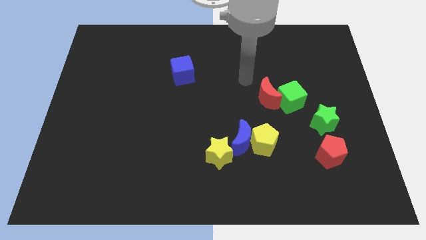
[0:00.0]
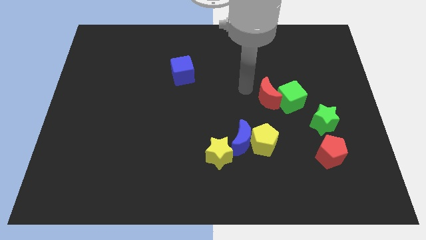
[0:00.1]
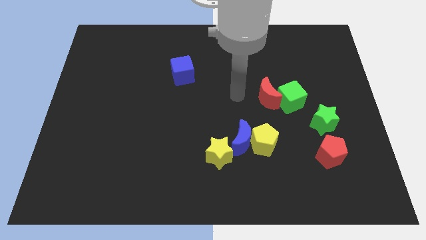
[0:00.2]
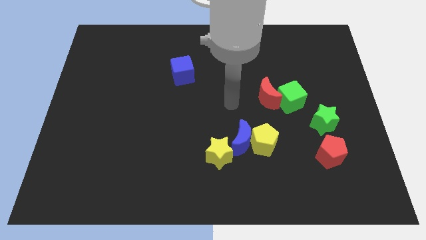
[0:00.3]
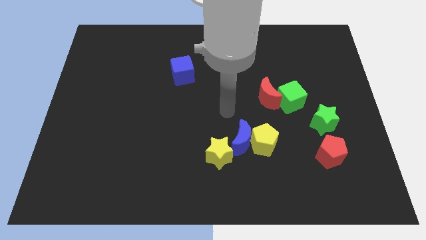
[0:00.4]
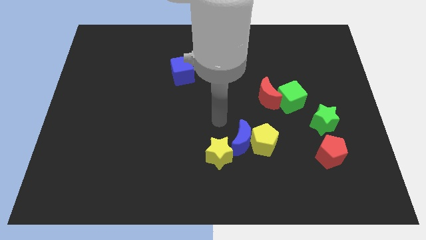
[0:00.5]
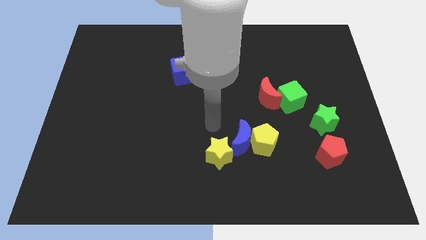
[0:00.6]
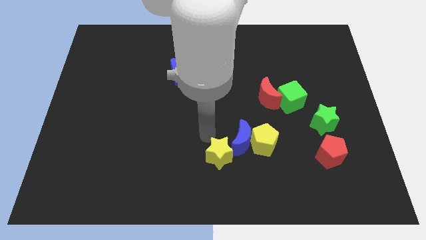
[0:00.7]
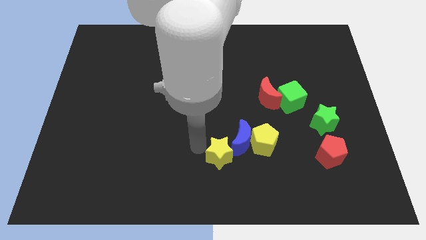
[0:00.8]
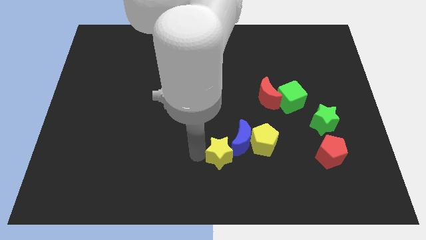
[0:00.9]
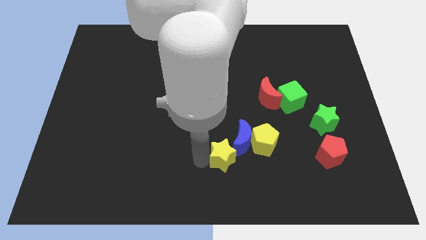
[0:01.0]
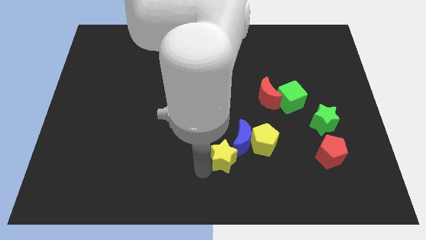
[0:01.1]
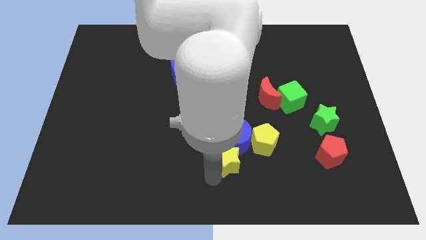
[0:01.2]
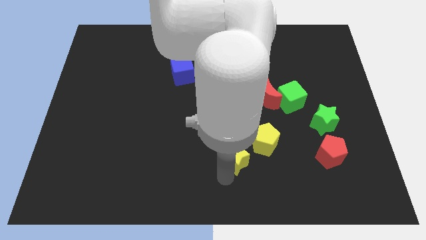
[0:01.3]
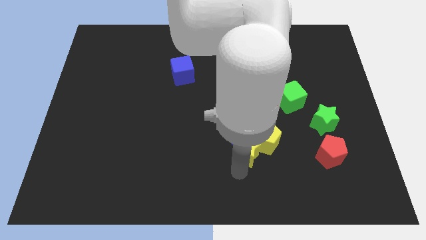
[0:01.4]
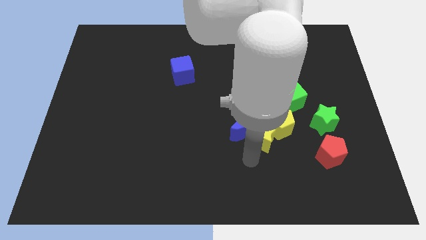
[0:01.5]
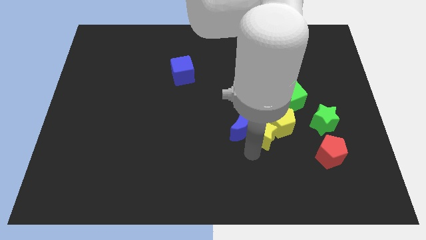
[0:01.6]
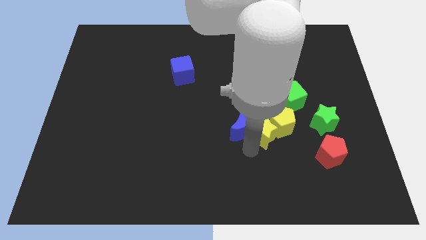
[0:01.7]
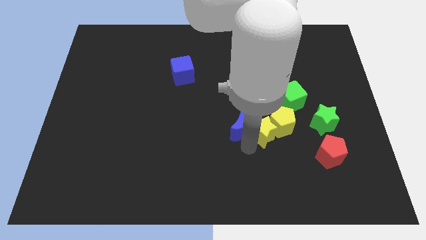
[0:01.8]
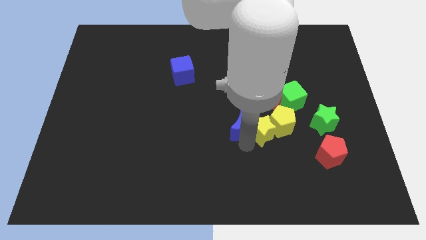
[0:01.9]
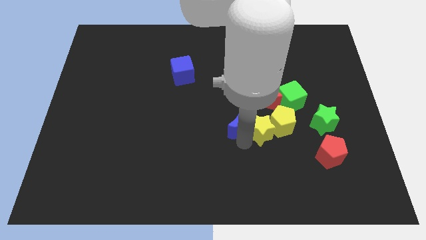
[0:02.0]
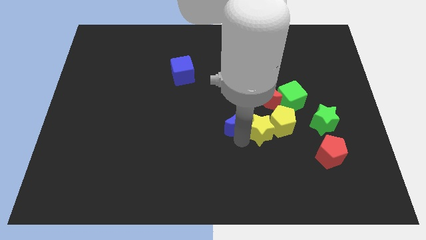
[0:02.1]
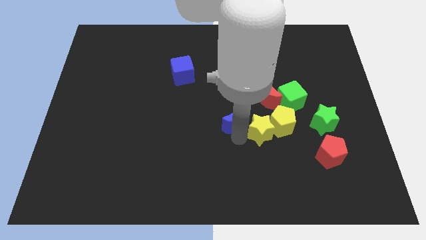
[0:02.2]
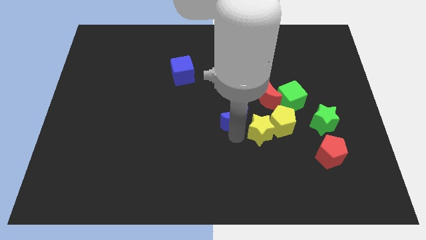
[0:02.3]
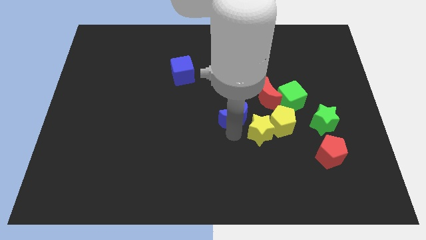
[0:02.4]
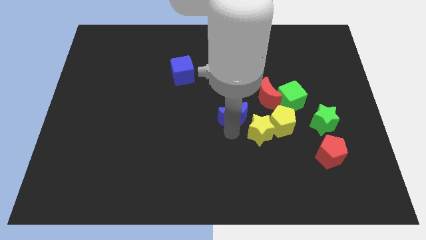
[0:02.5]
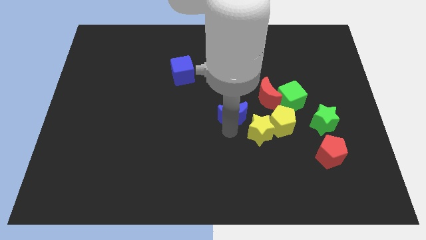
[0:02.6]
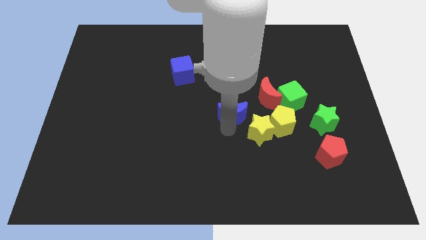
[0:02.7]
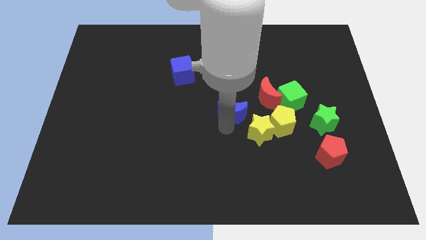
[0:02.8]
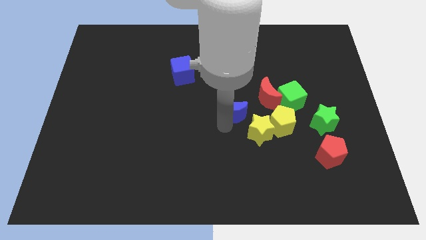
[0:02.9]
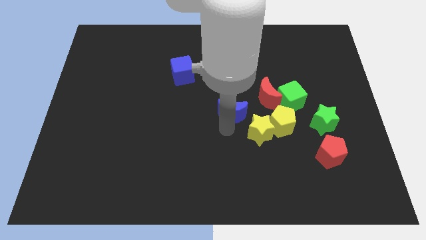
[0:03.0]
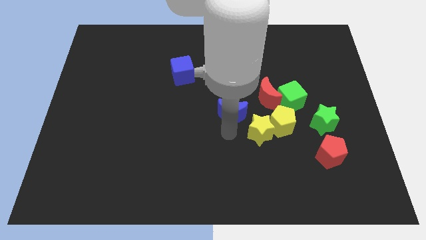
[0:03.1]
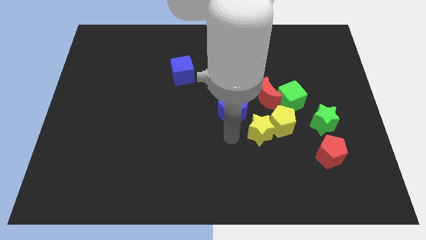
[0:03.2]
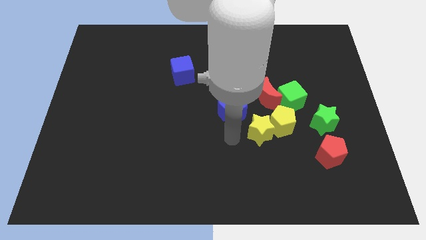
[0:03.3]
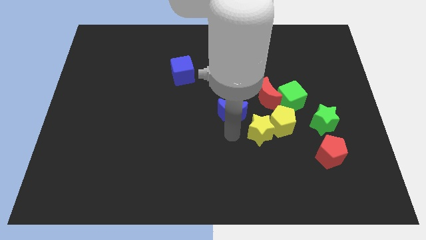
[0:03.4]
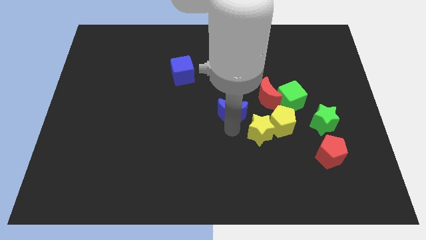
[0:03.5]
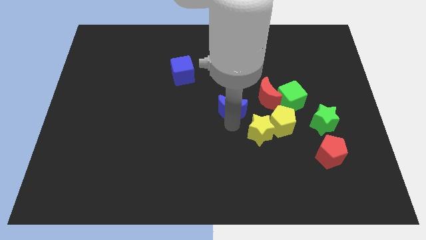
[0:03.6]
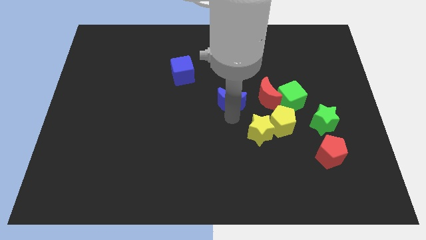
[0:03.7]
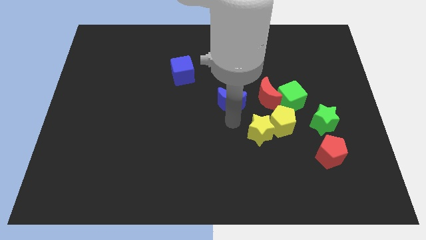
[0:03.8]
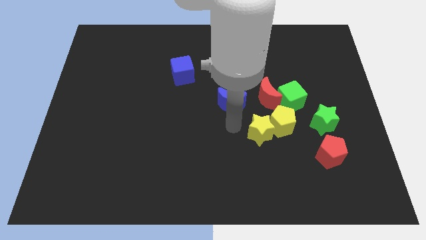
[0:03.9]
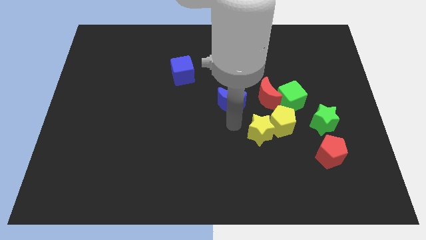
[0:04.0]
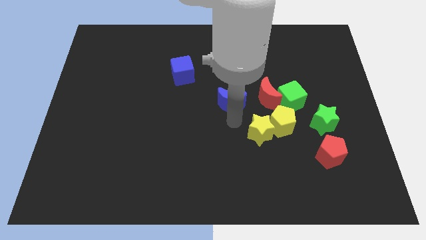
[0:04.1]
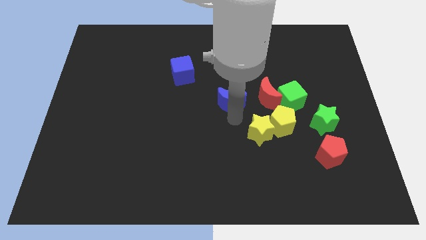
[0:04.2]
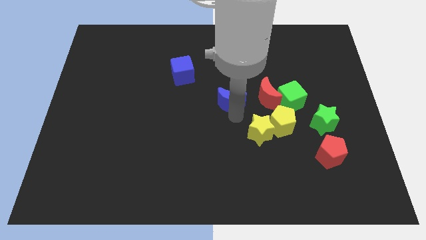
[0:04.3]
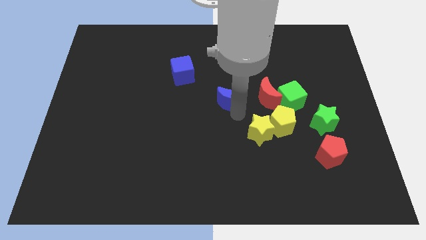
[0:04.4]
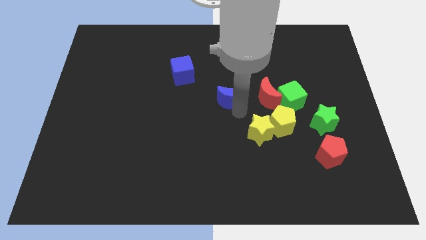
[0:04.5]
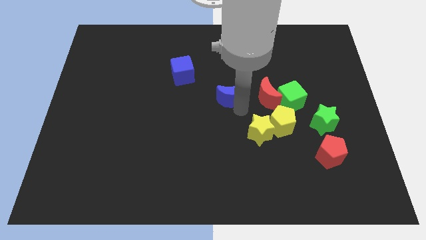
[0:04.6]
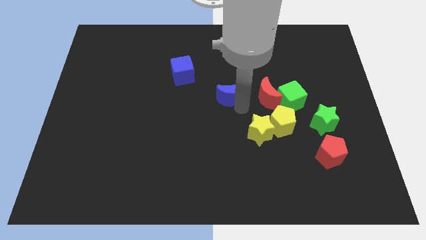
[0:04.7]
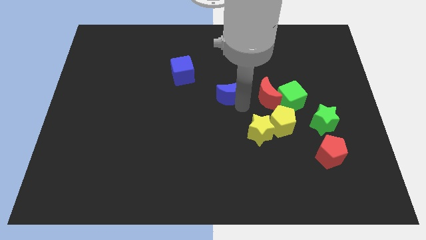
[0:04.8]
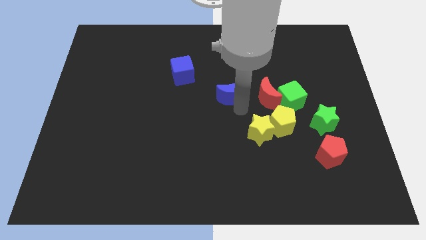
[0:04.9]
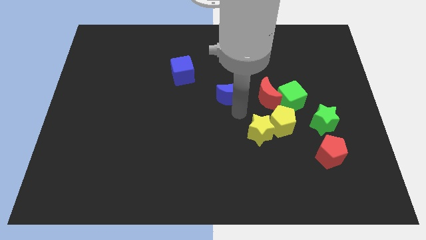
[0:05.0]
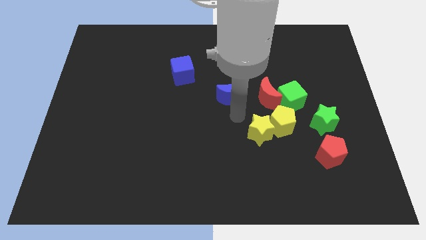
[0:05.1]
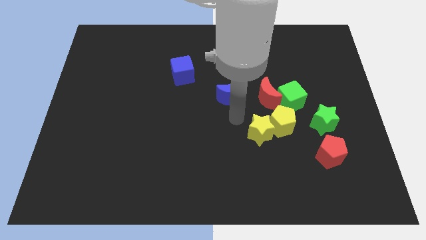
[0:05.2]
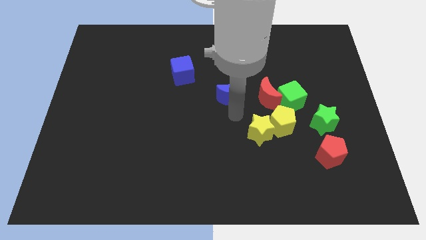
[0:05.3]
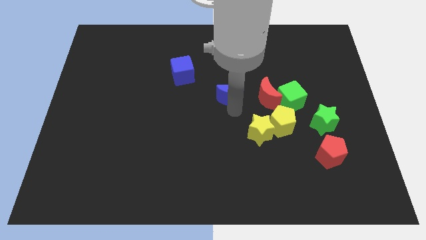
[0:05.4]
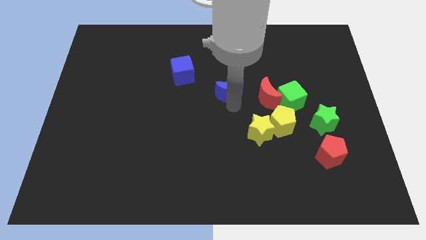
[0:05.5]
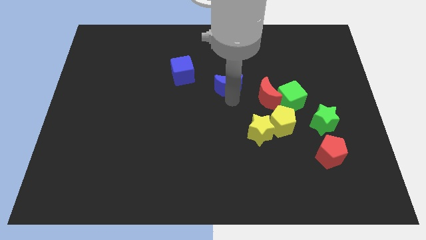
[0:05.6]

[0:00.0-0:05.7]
slide the blue moon to the right of the blue cube
